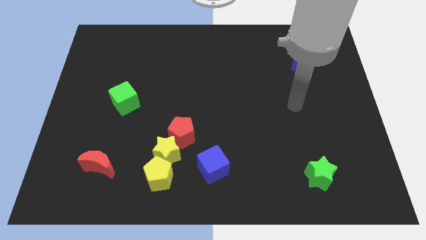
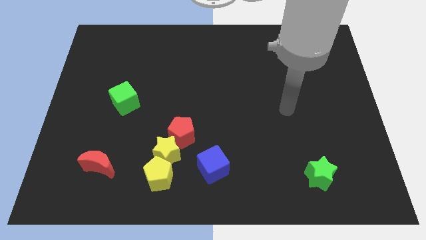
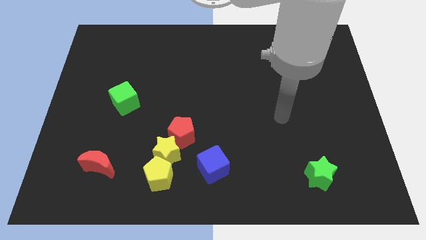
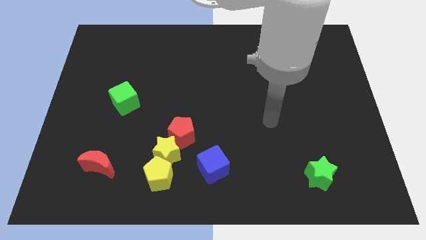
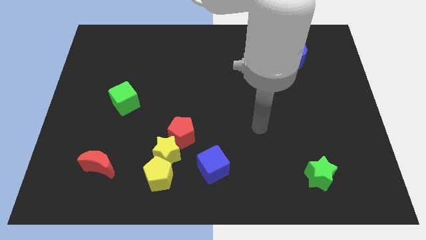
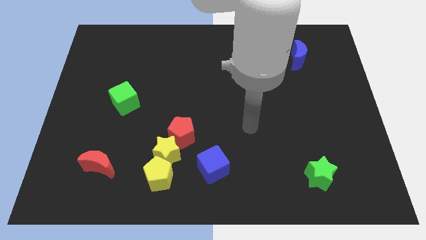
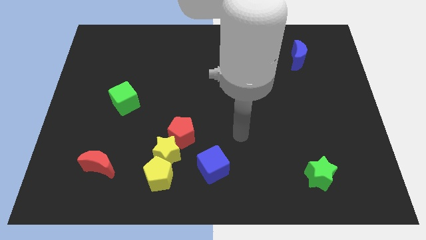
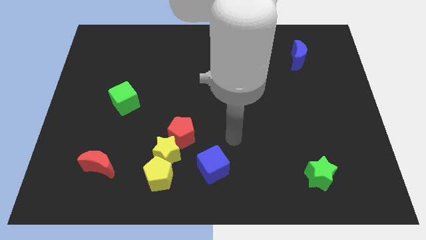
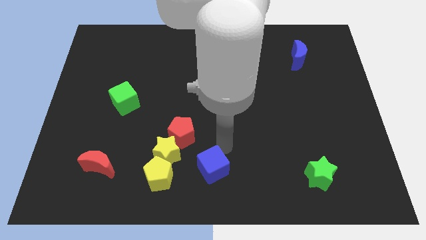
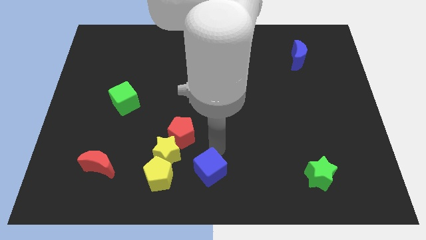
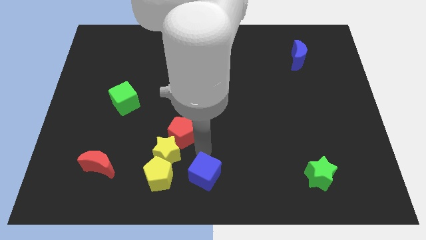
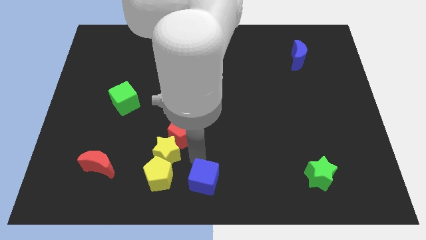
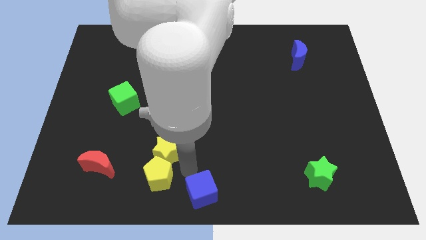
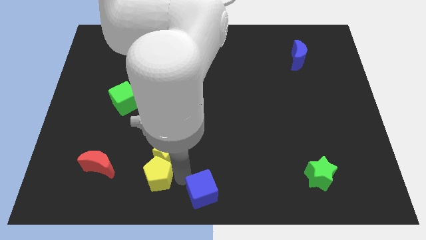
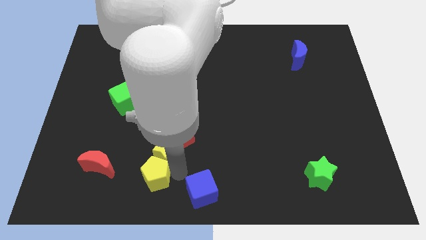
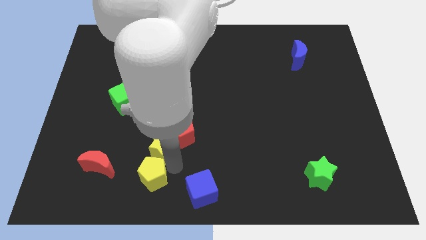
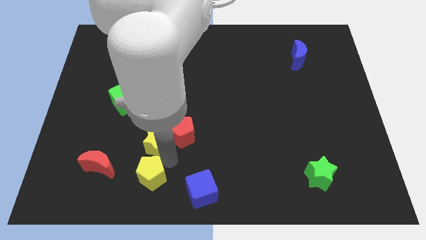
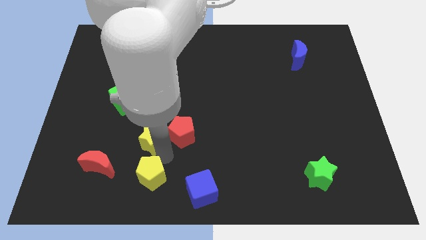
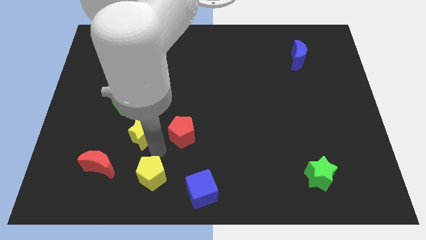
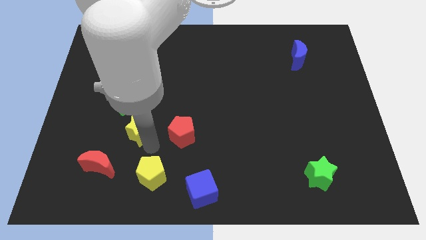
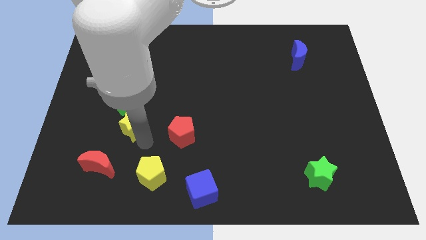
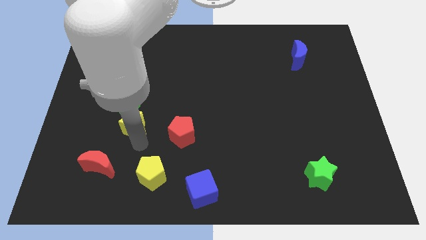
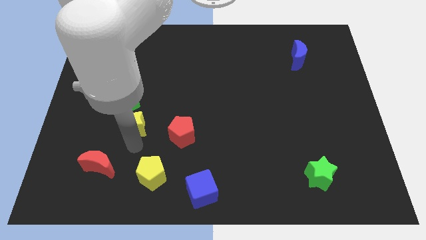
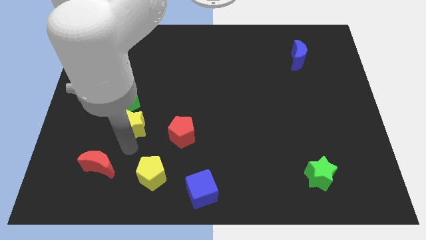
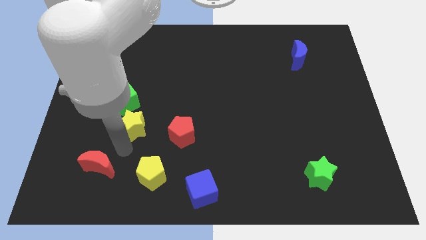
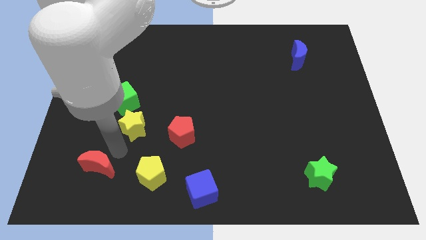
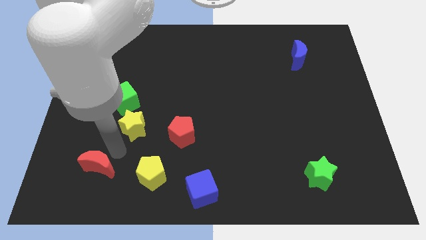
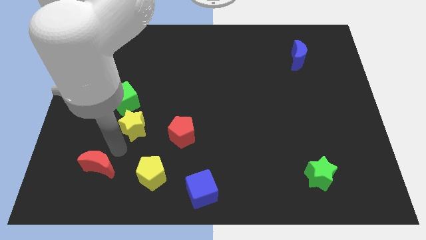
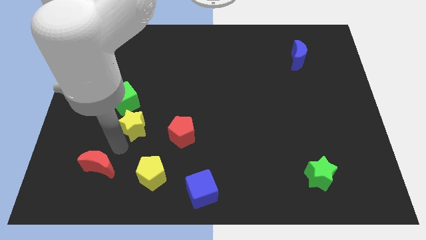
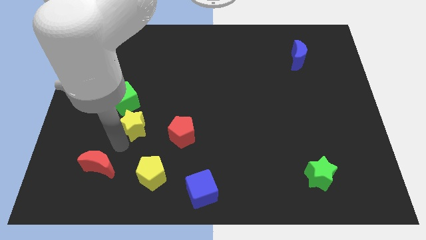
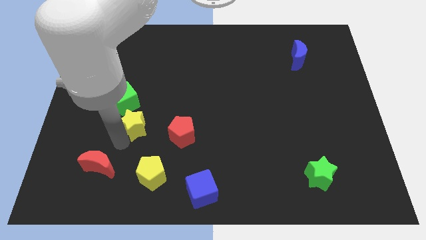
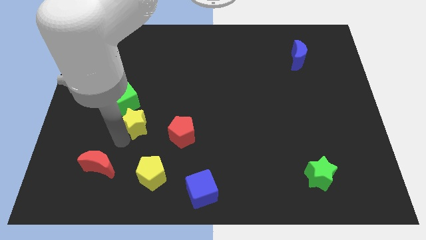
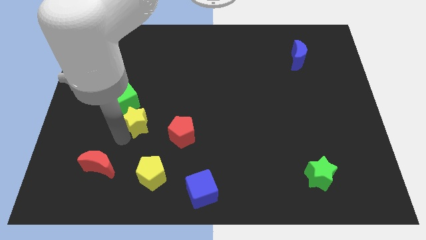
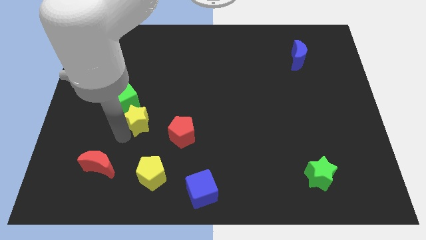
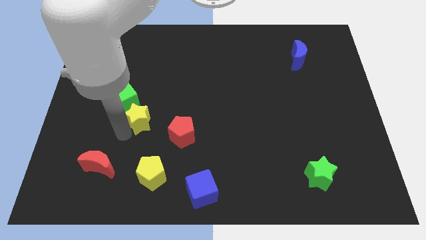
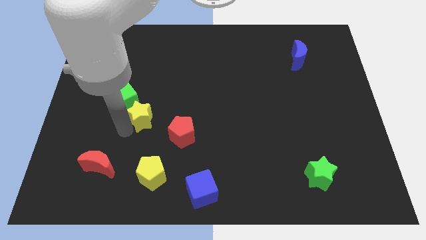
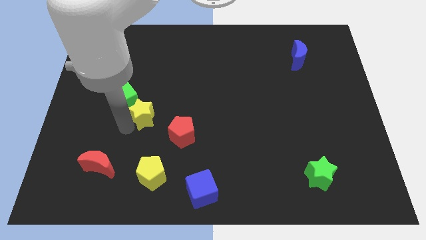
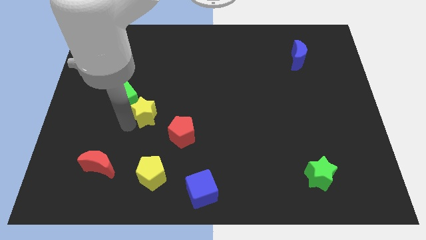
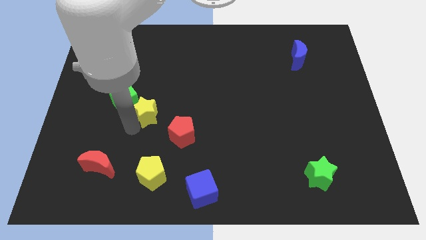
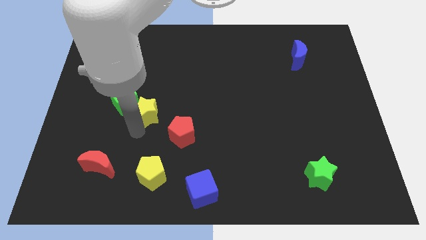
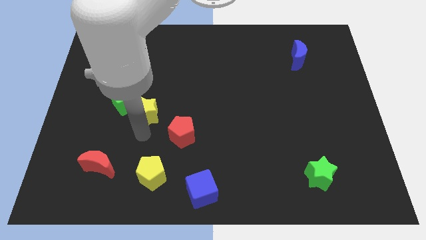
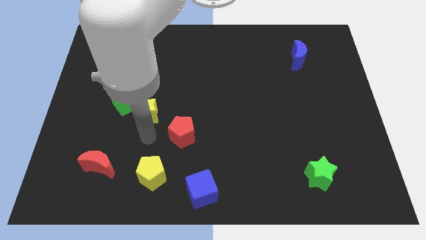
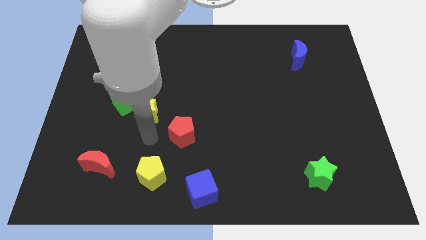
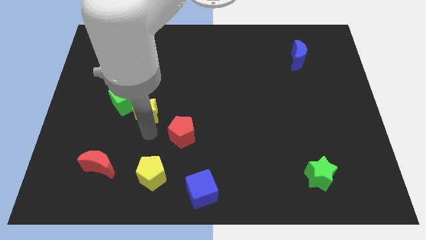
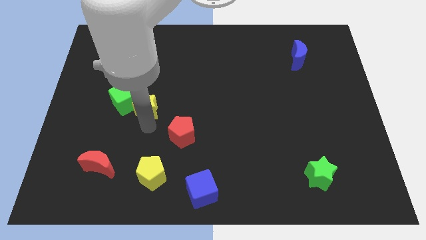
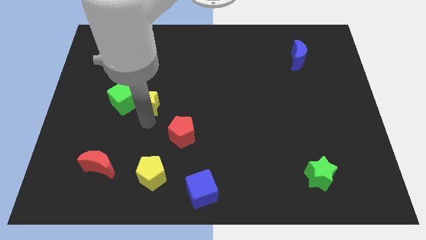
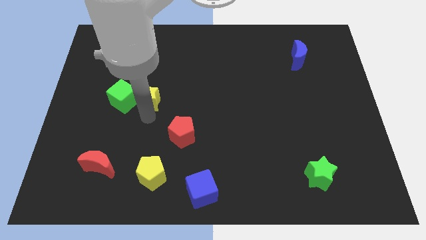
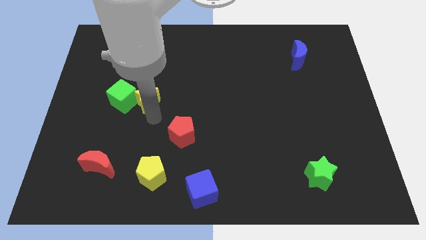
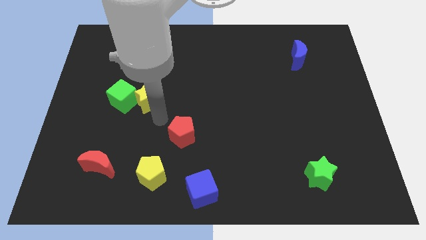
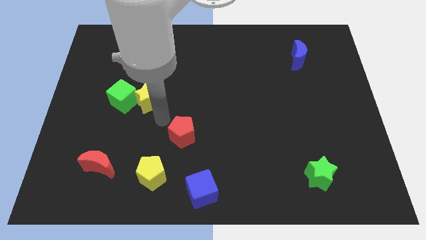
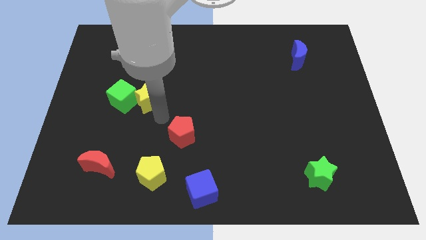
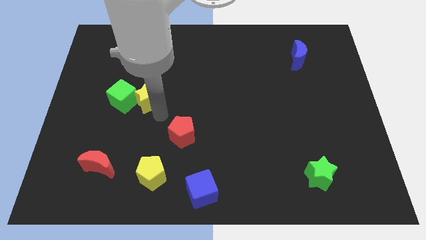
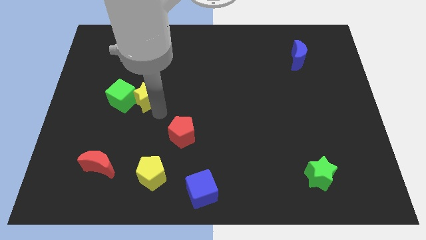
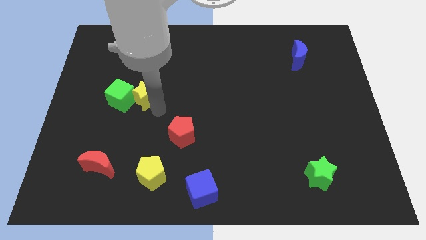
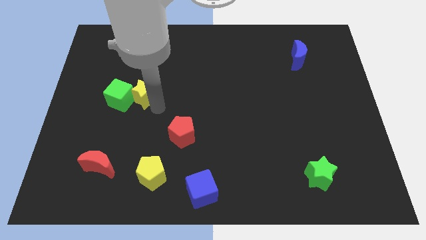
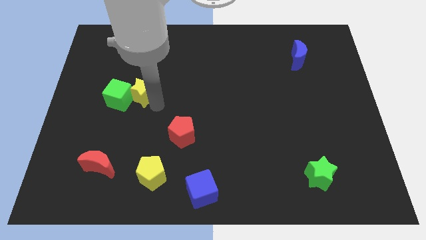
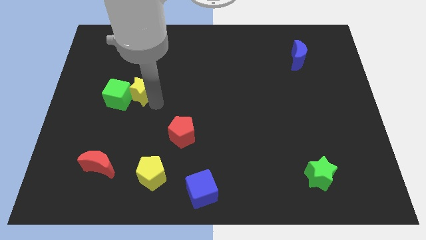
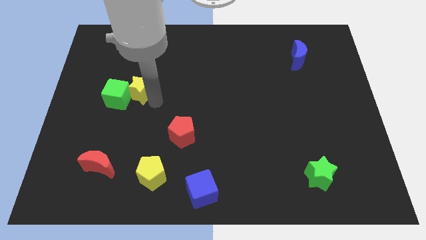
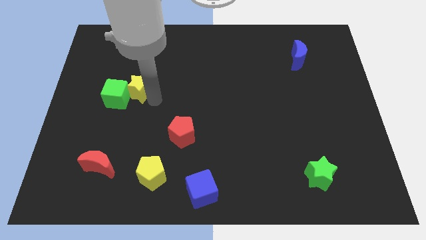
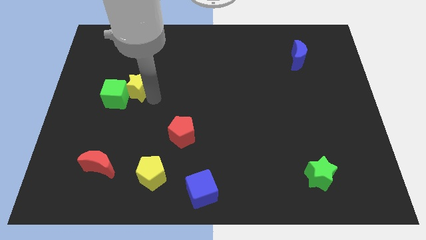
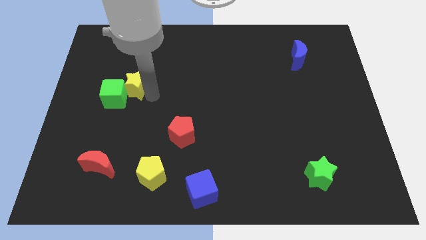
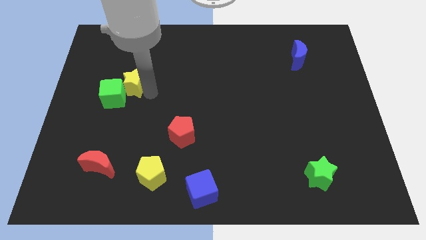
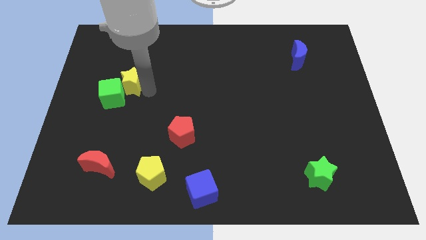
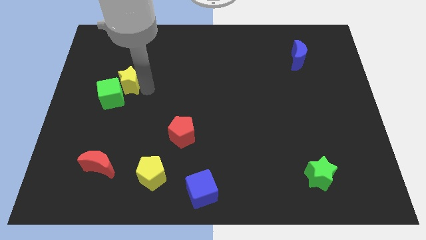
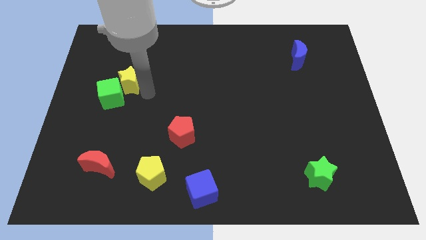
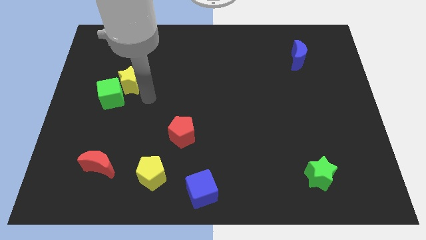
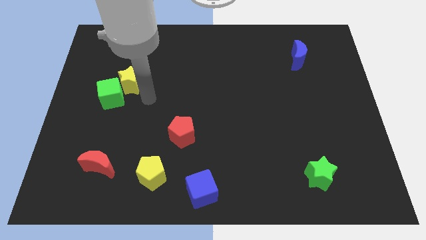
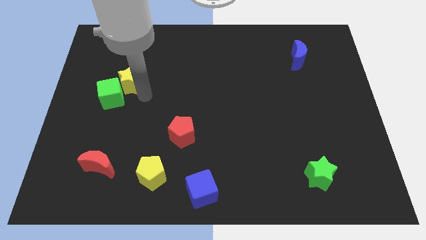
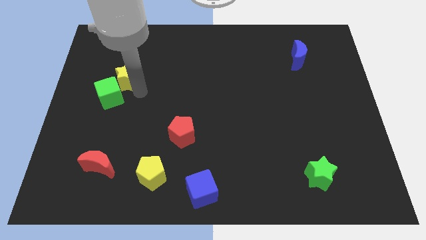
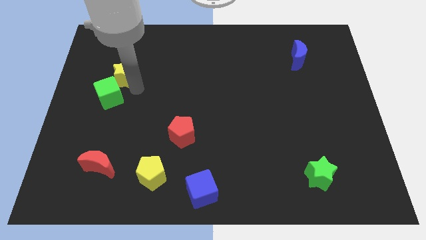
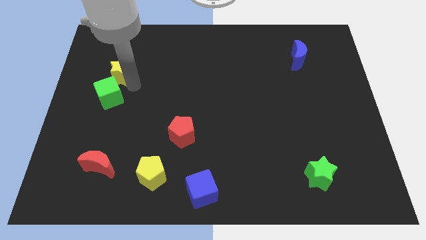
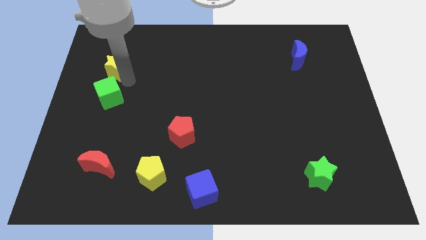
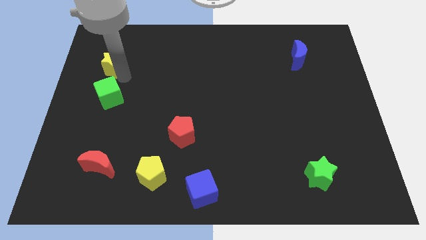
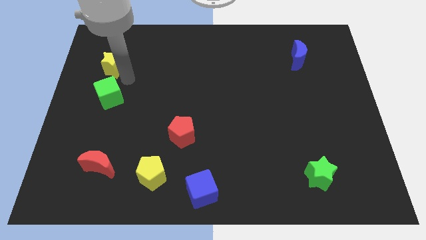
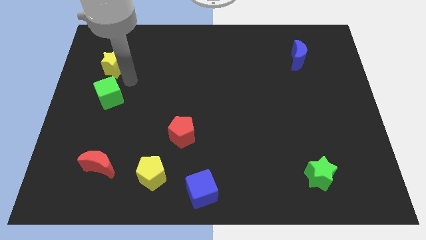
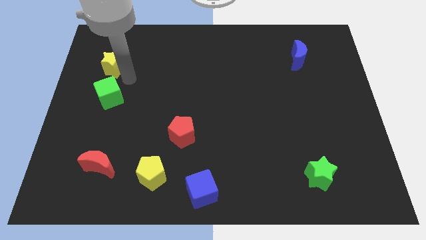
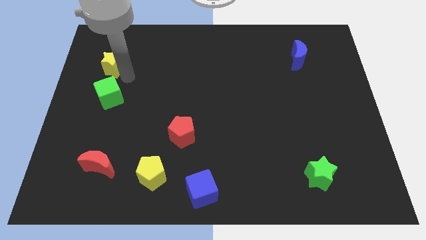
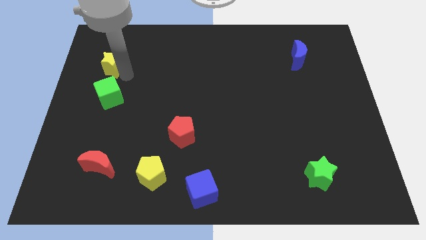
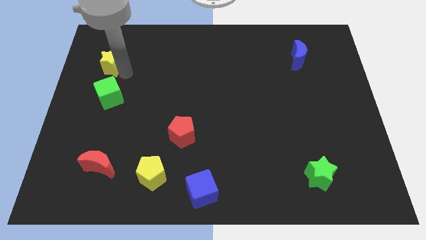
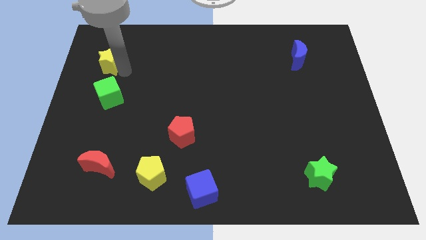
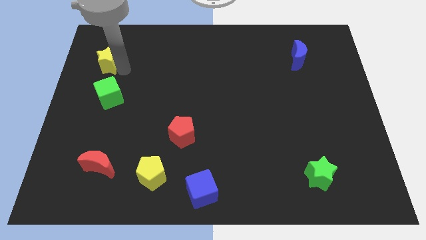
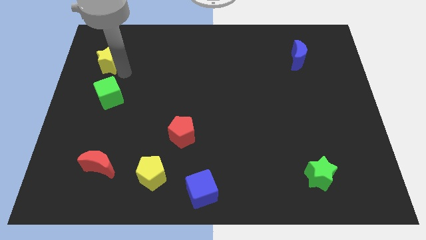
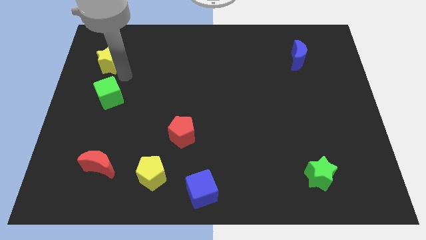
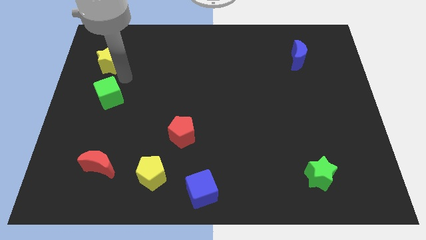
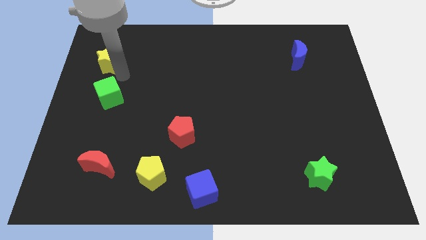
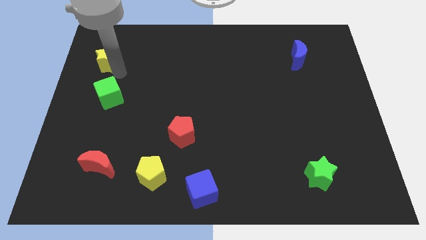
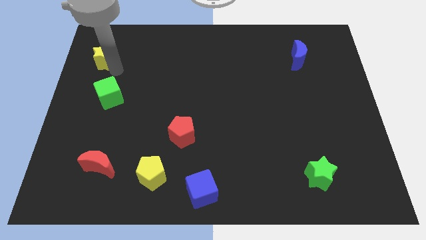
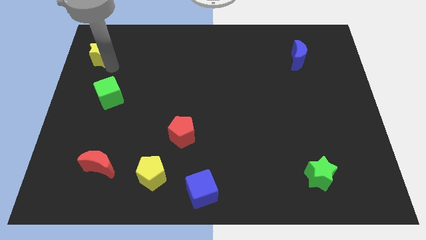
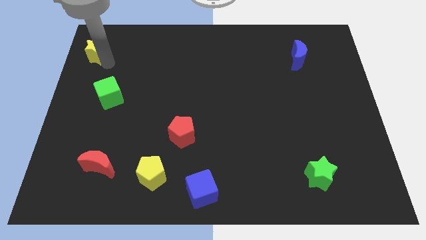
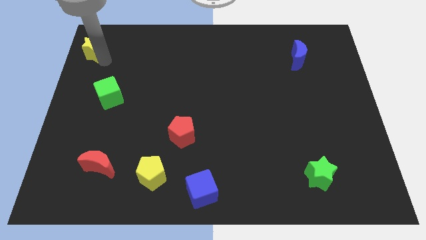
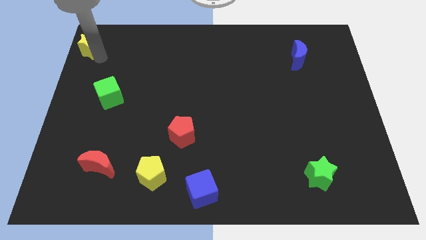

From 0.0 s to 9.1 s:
move the yellow star to the upper left corner
